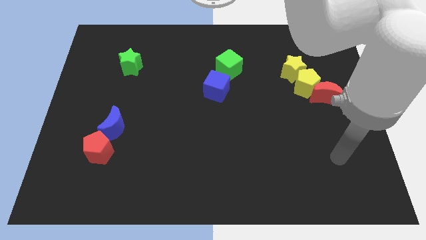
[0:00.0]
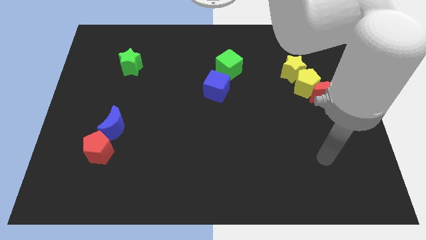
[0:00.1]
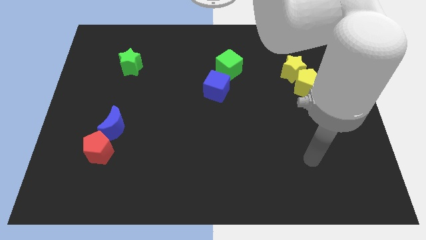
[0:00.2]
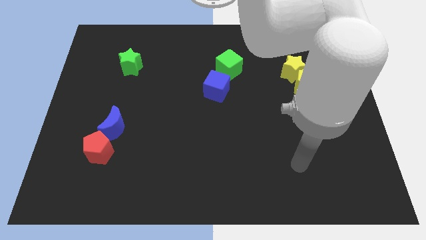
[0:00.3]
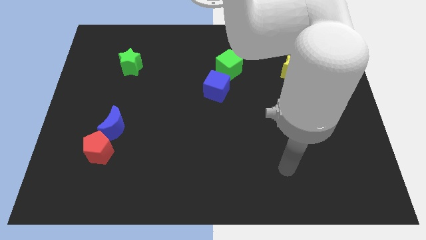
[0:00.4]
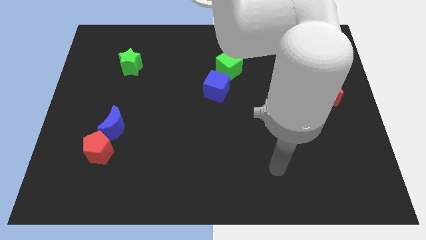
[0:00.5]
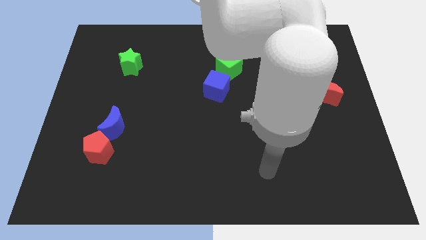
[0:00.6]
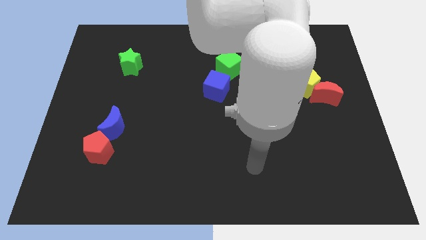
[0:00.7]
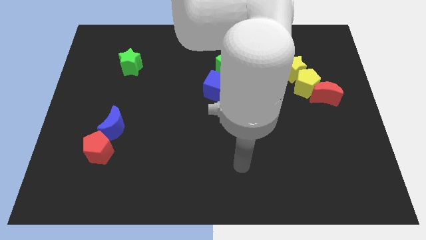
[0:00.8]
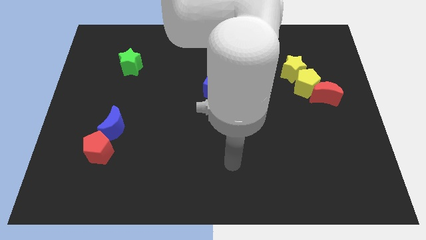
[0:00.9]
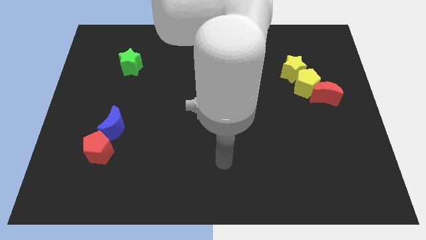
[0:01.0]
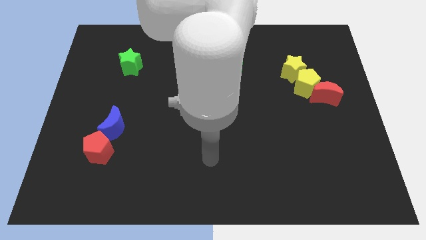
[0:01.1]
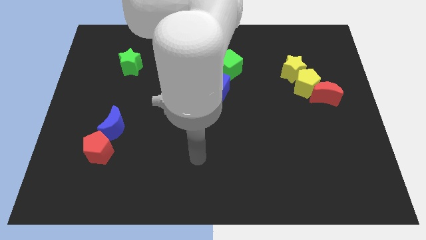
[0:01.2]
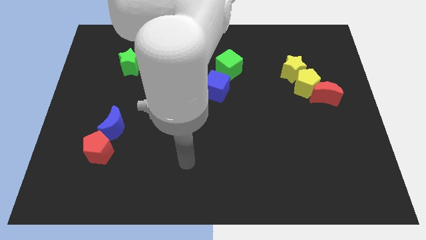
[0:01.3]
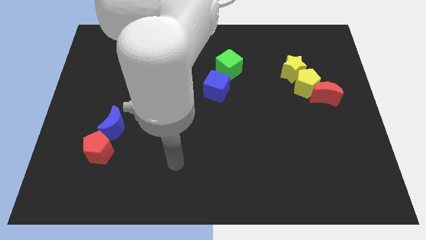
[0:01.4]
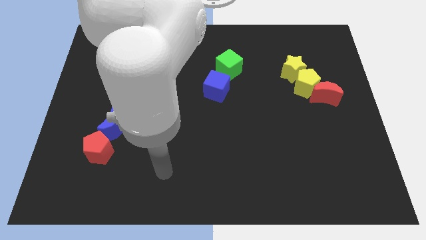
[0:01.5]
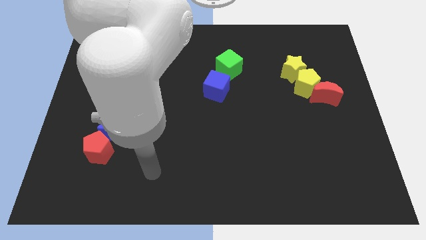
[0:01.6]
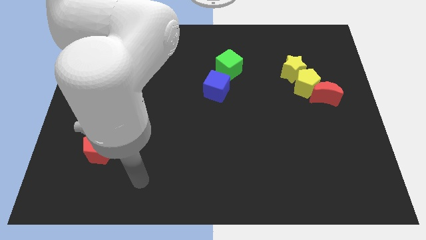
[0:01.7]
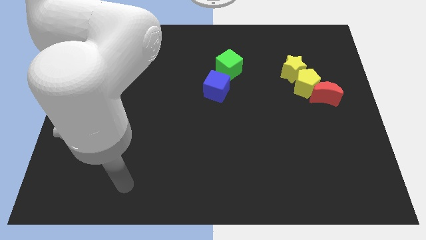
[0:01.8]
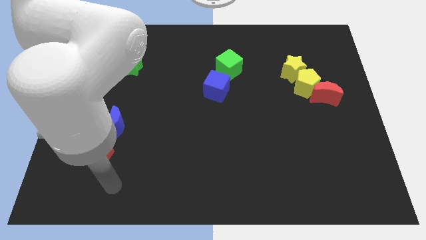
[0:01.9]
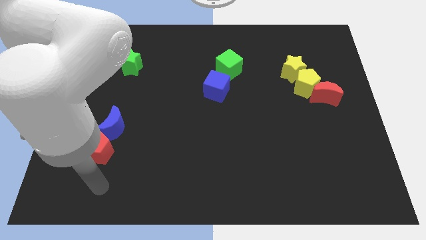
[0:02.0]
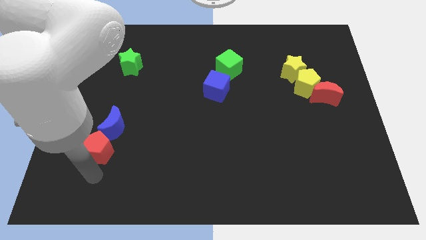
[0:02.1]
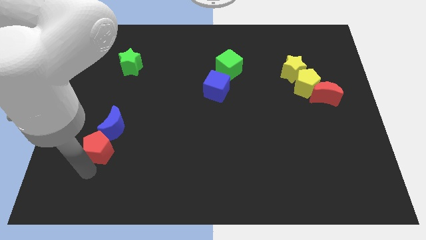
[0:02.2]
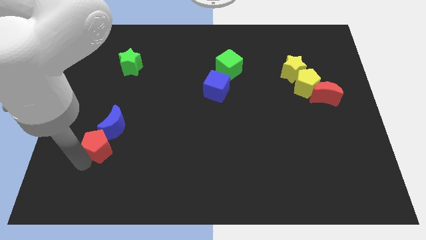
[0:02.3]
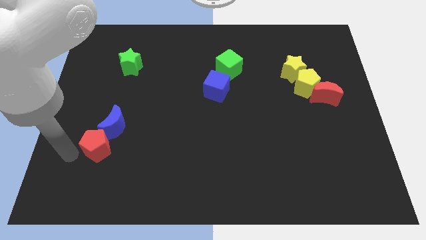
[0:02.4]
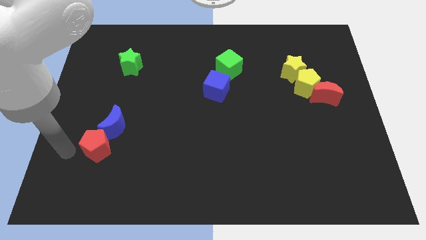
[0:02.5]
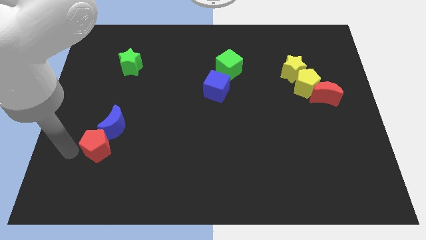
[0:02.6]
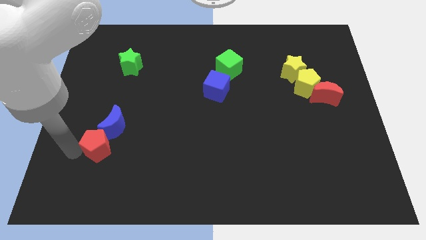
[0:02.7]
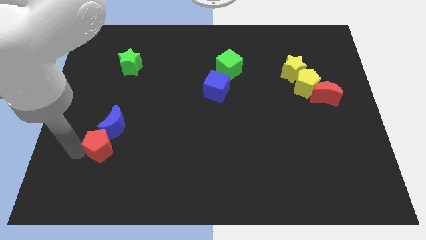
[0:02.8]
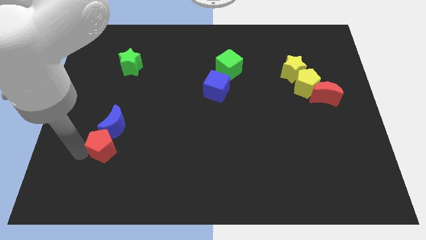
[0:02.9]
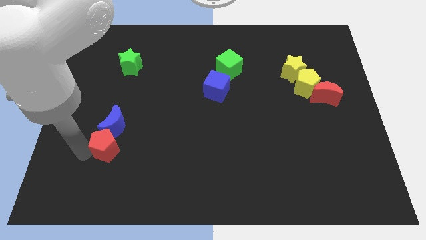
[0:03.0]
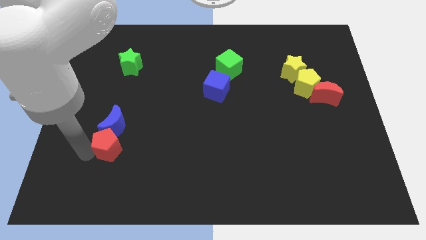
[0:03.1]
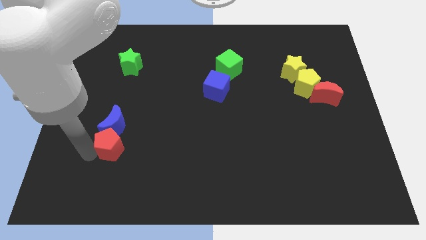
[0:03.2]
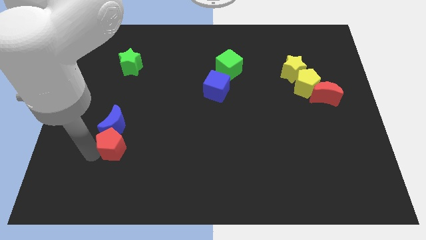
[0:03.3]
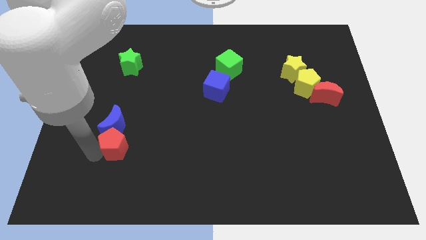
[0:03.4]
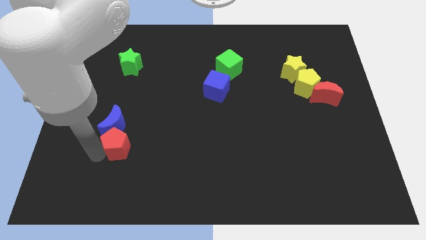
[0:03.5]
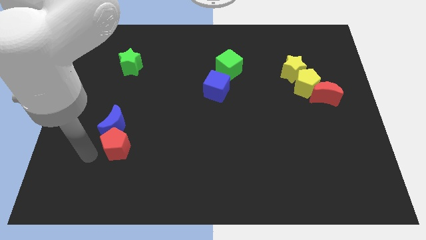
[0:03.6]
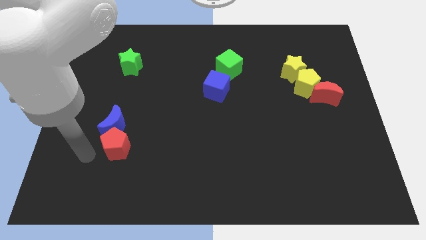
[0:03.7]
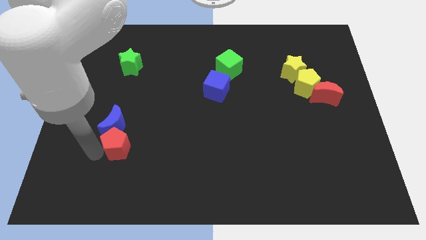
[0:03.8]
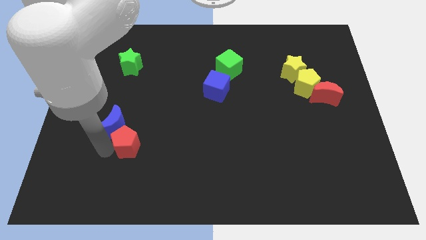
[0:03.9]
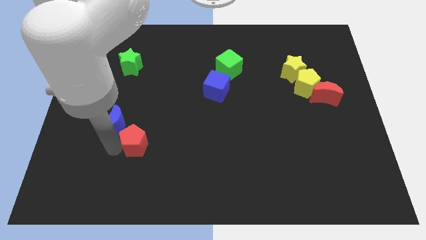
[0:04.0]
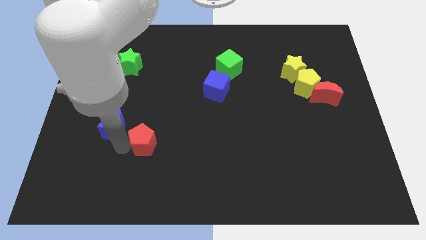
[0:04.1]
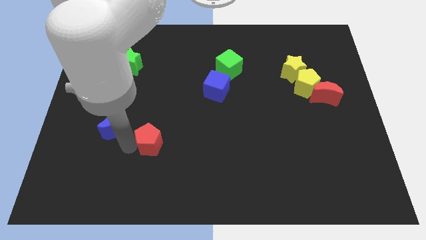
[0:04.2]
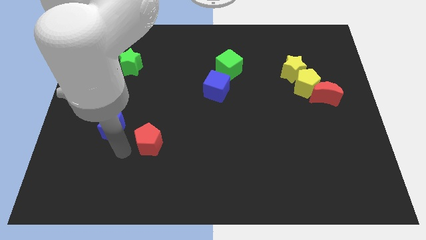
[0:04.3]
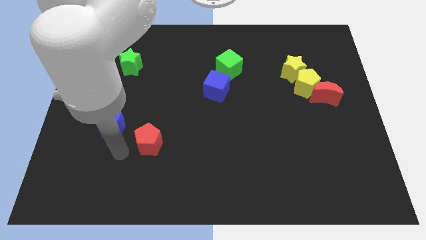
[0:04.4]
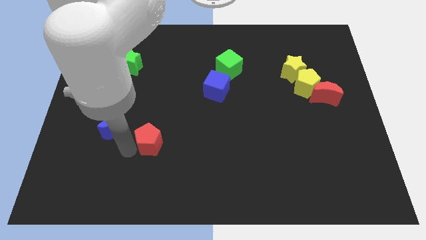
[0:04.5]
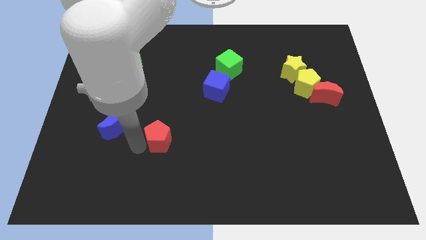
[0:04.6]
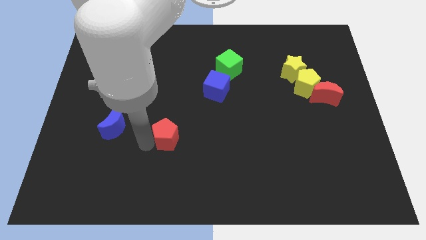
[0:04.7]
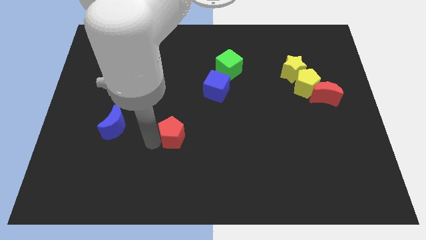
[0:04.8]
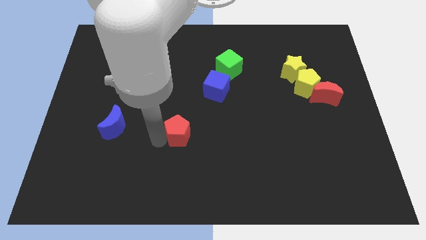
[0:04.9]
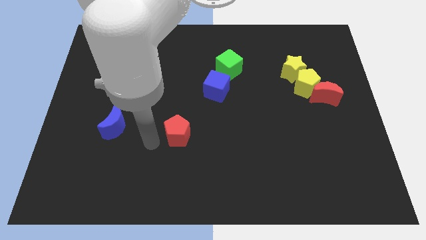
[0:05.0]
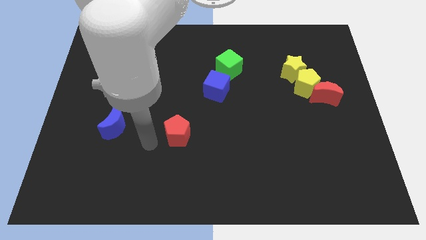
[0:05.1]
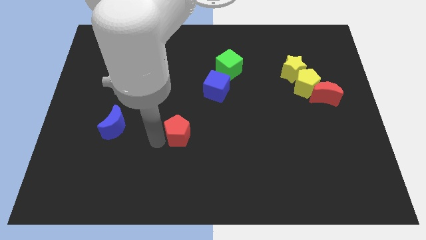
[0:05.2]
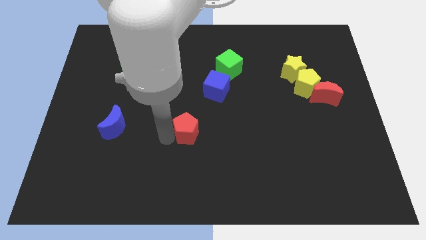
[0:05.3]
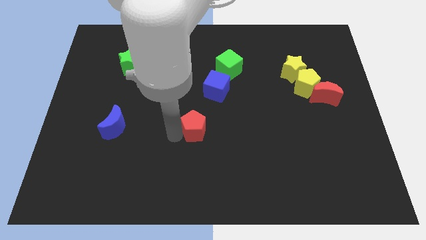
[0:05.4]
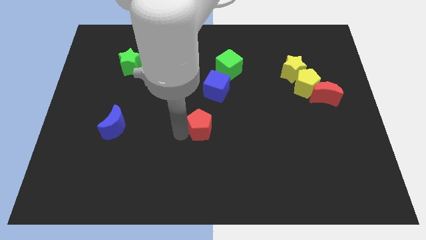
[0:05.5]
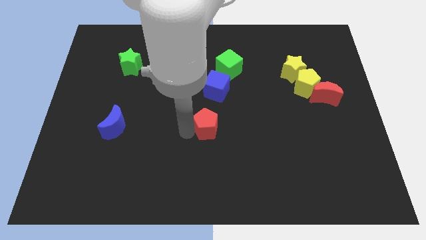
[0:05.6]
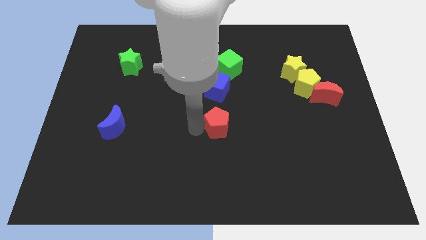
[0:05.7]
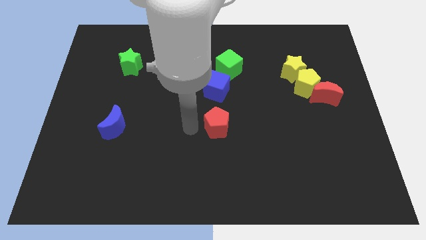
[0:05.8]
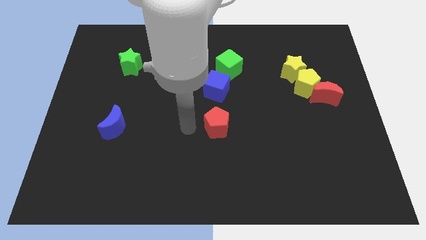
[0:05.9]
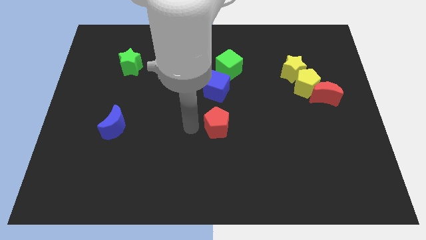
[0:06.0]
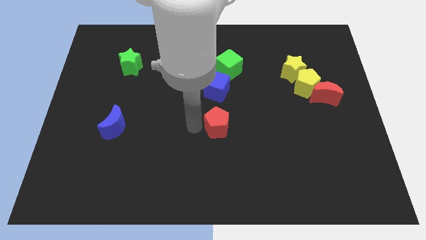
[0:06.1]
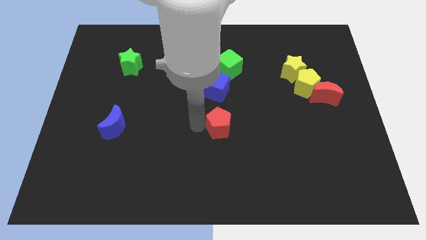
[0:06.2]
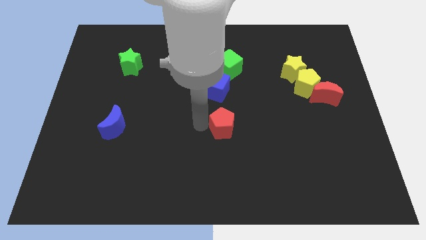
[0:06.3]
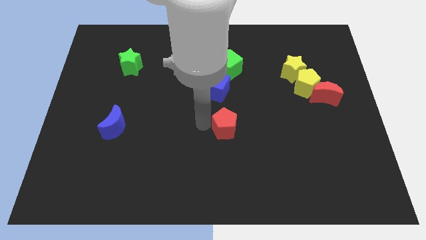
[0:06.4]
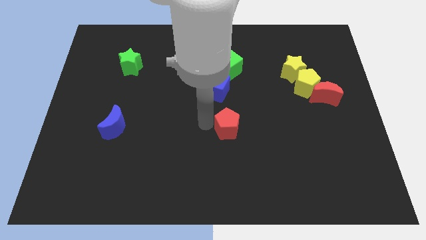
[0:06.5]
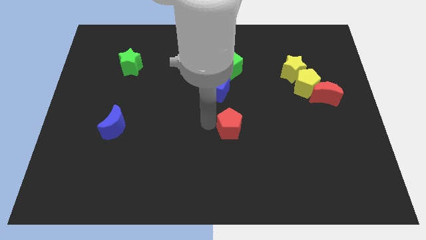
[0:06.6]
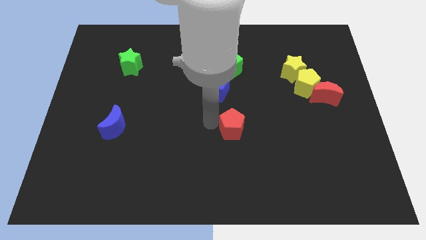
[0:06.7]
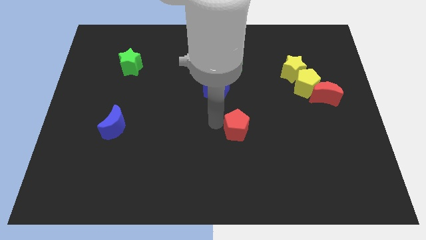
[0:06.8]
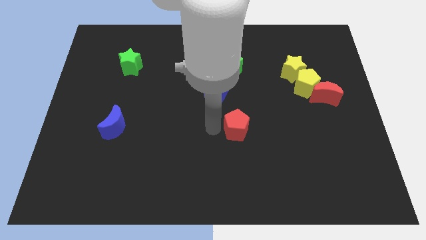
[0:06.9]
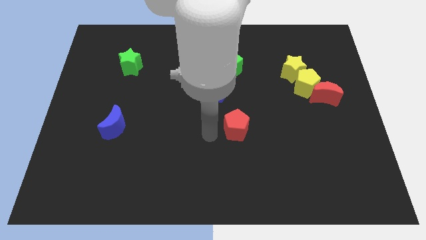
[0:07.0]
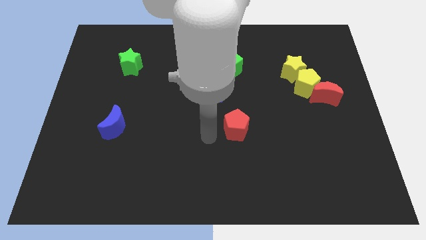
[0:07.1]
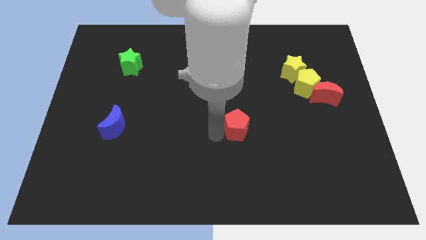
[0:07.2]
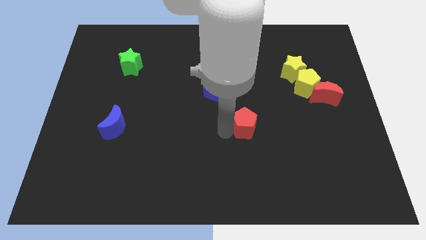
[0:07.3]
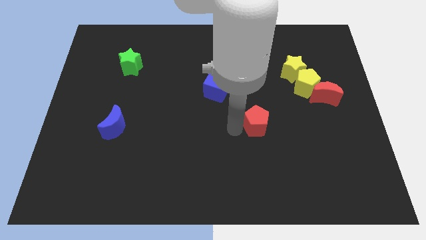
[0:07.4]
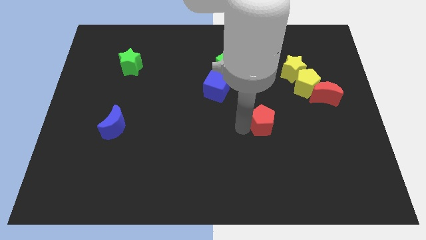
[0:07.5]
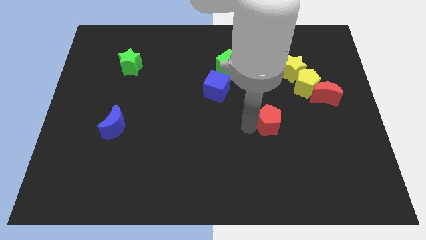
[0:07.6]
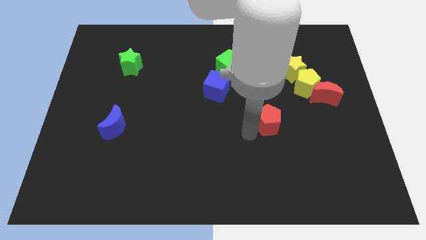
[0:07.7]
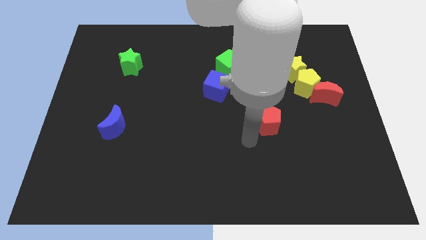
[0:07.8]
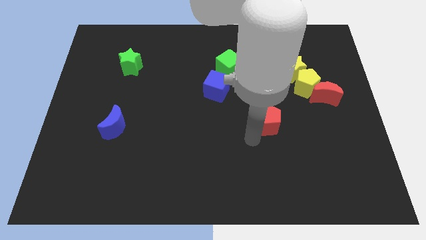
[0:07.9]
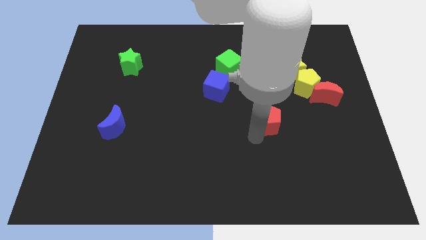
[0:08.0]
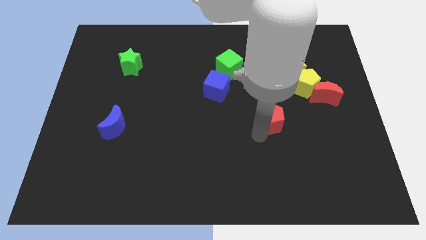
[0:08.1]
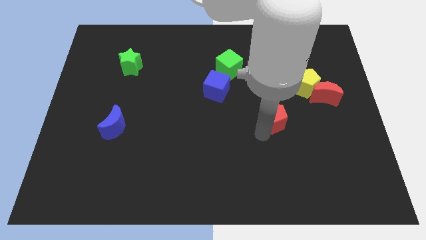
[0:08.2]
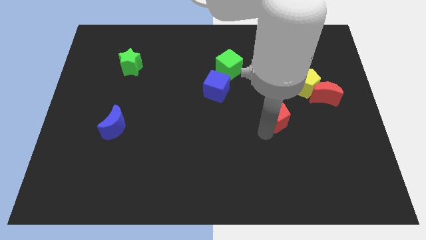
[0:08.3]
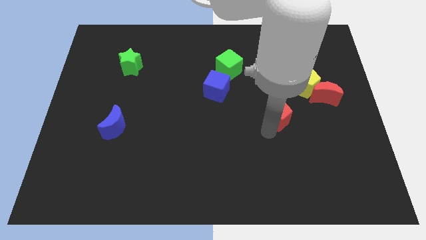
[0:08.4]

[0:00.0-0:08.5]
slide the red pentagon to the bottom left side of the yellow pentagon
